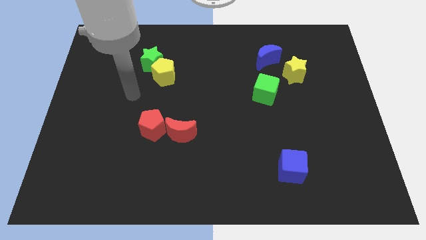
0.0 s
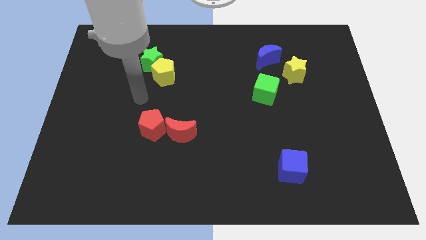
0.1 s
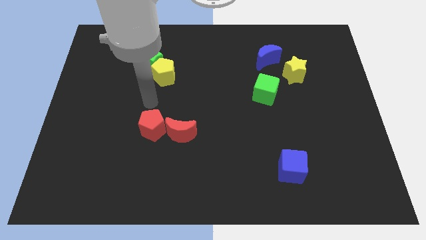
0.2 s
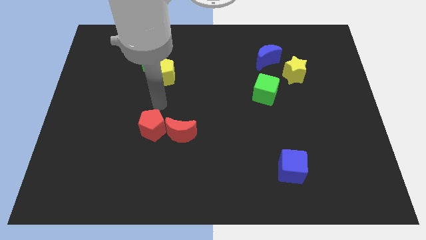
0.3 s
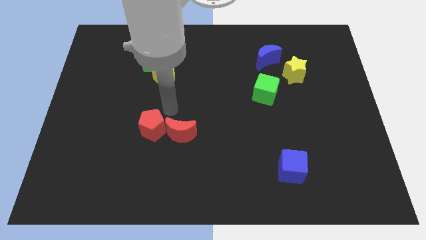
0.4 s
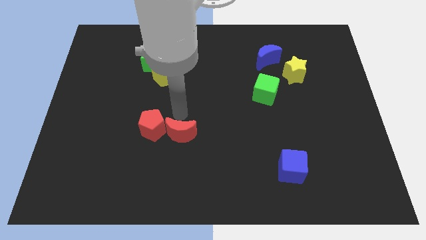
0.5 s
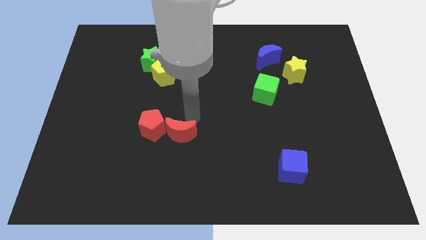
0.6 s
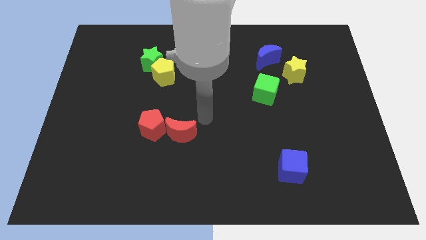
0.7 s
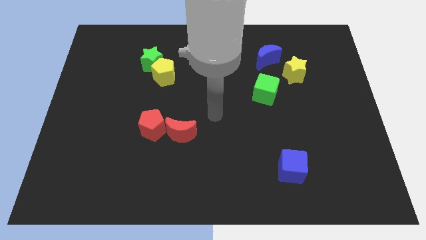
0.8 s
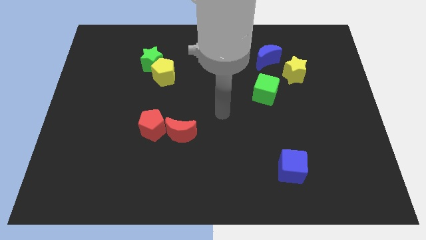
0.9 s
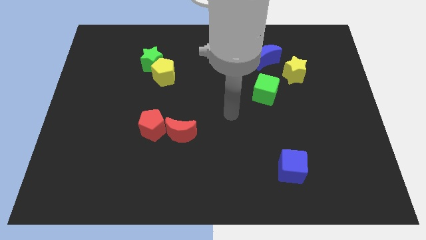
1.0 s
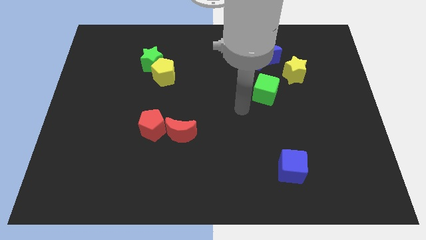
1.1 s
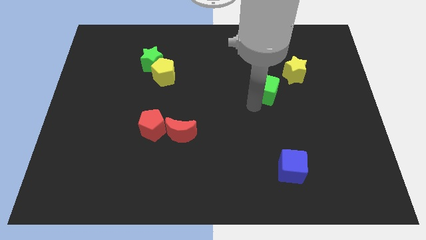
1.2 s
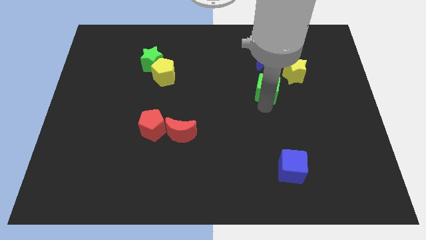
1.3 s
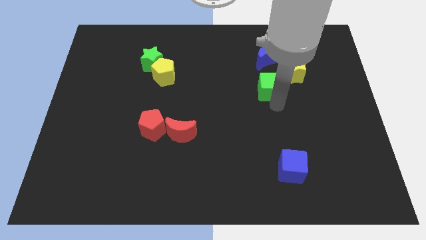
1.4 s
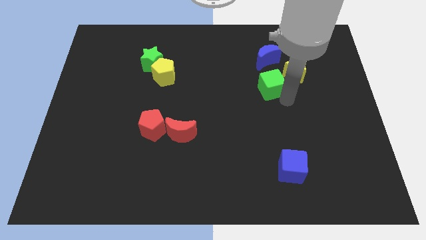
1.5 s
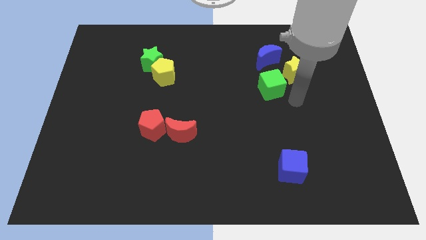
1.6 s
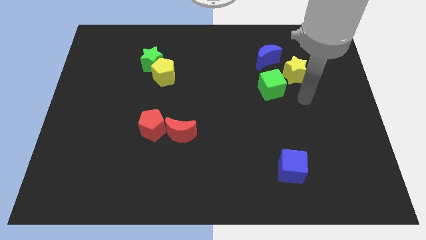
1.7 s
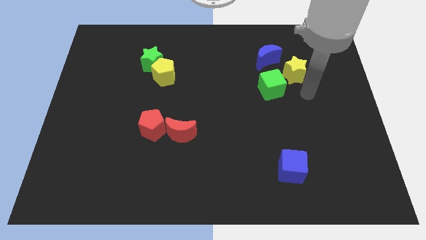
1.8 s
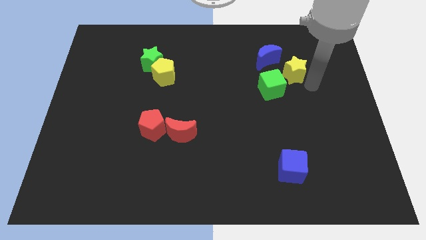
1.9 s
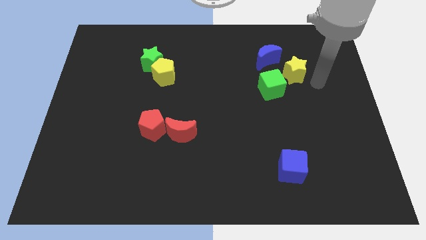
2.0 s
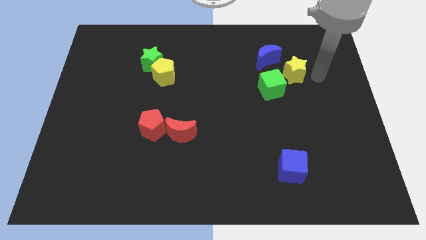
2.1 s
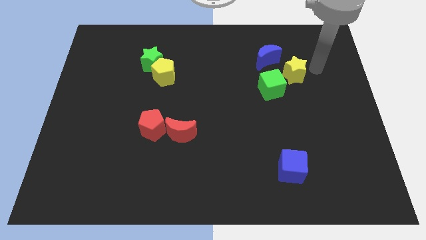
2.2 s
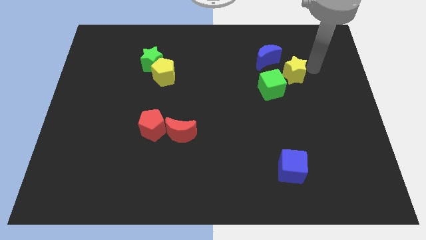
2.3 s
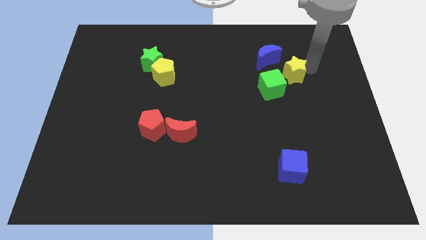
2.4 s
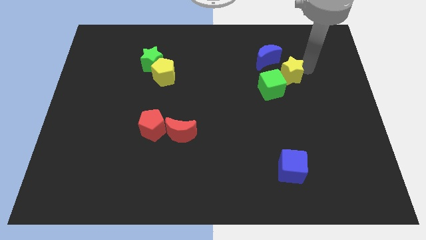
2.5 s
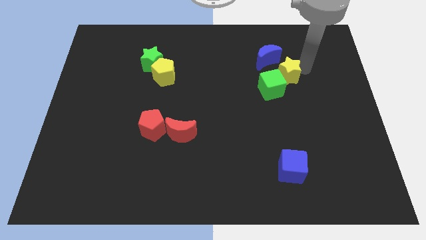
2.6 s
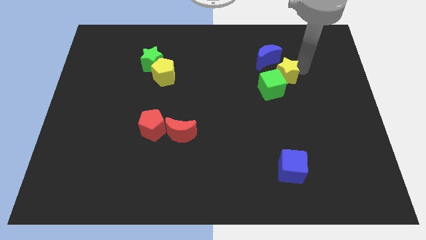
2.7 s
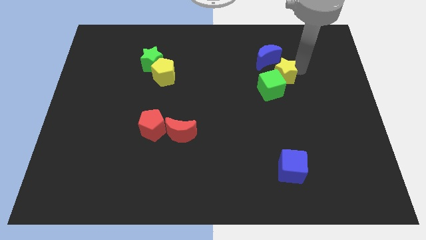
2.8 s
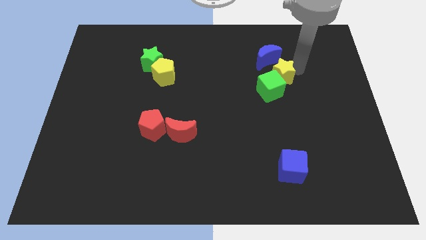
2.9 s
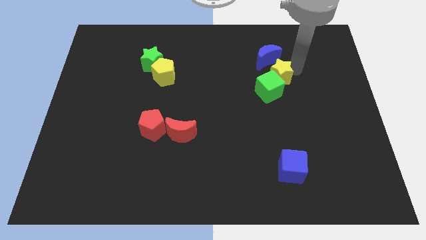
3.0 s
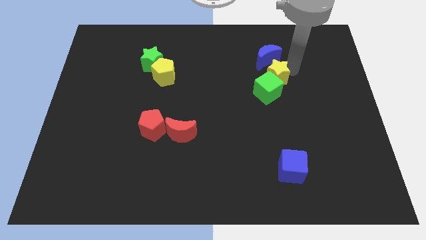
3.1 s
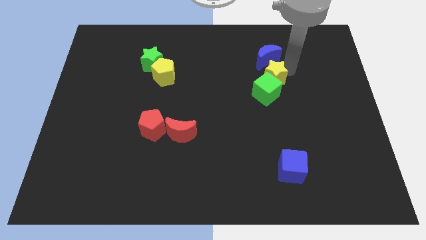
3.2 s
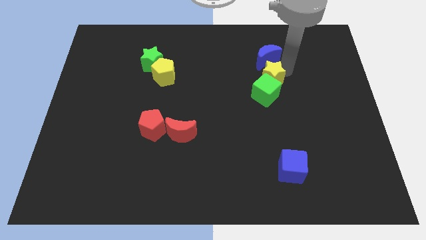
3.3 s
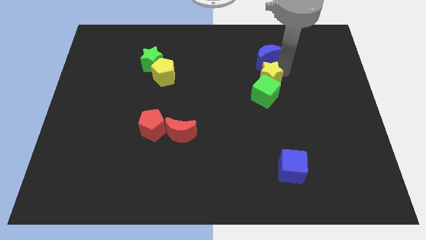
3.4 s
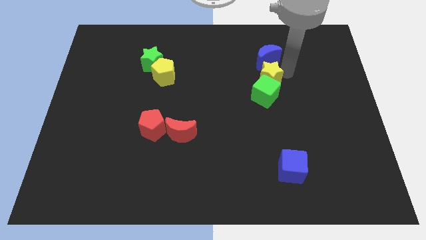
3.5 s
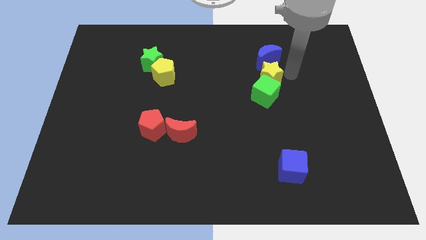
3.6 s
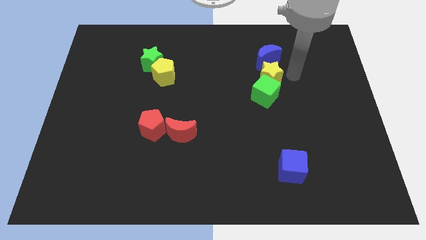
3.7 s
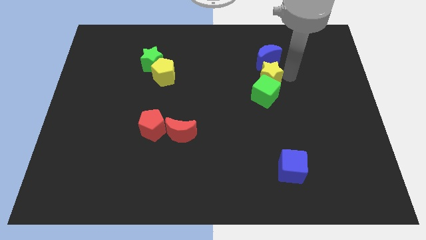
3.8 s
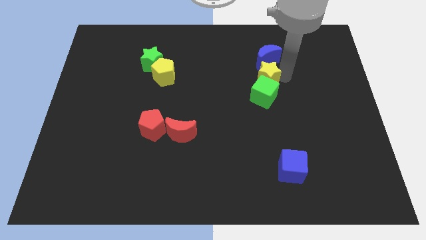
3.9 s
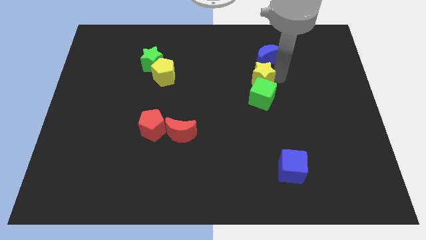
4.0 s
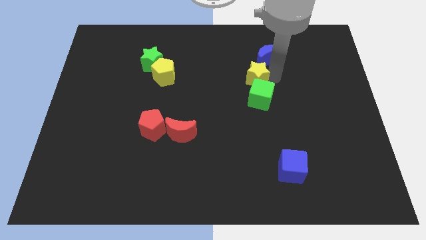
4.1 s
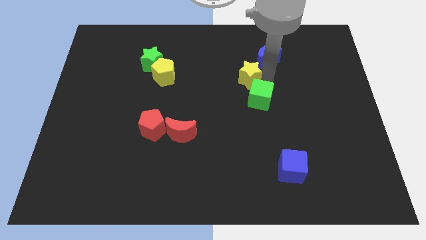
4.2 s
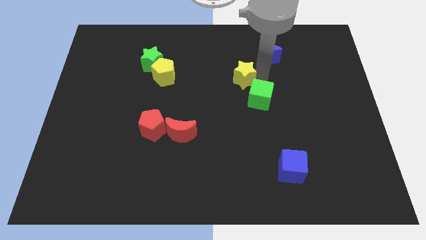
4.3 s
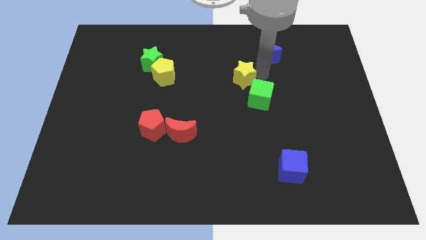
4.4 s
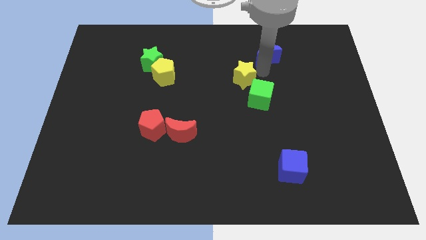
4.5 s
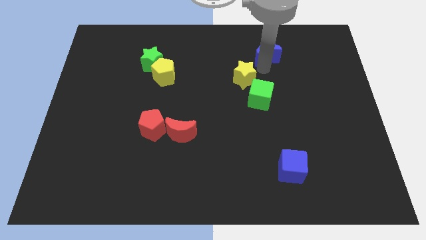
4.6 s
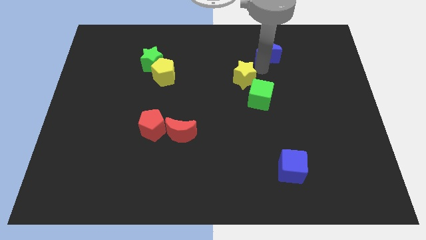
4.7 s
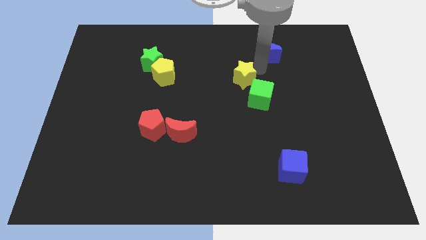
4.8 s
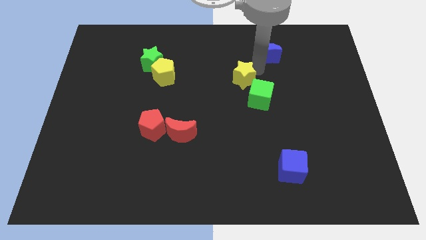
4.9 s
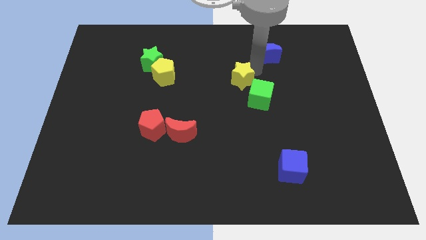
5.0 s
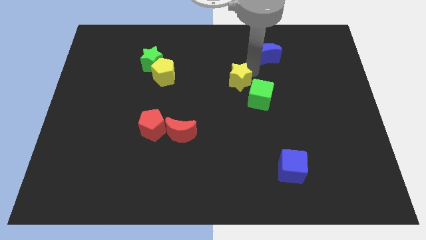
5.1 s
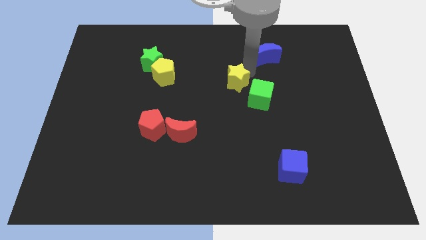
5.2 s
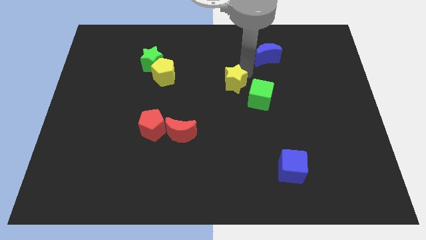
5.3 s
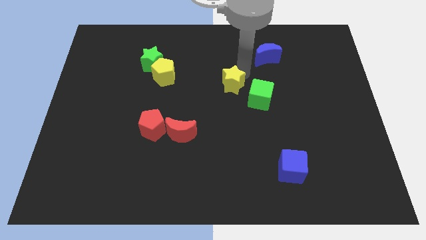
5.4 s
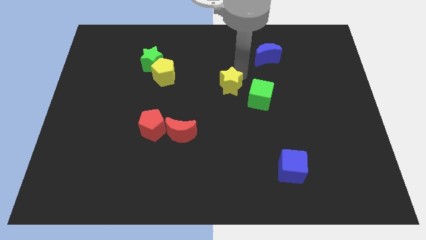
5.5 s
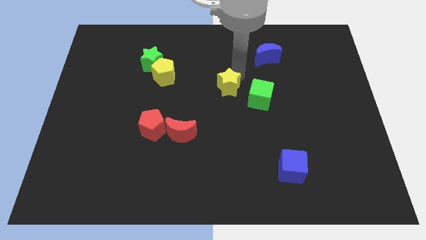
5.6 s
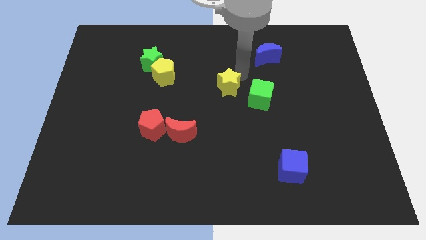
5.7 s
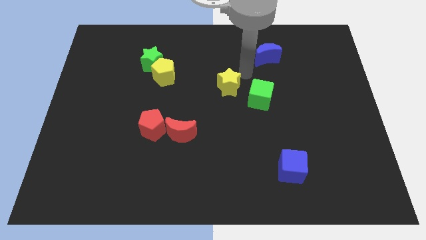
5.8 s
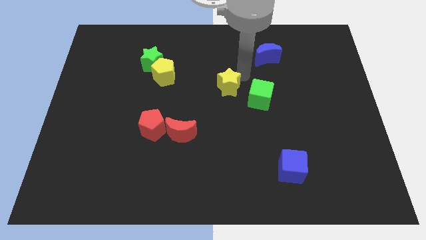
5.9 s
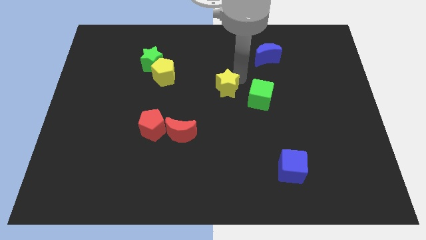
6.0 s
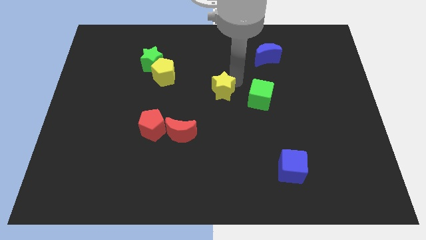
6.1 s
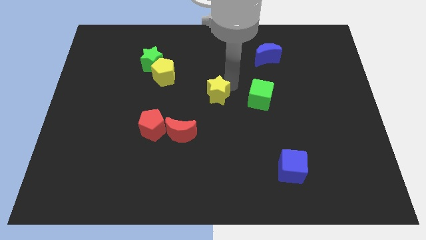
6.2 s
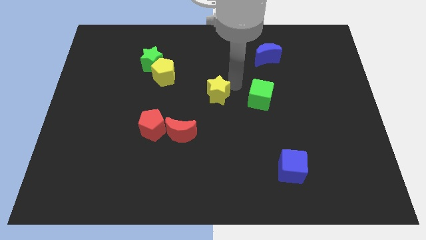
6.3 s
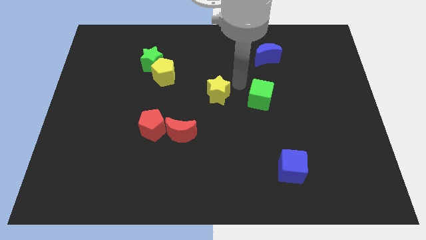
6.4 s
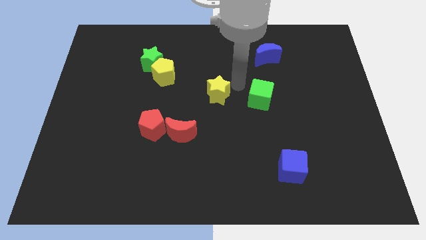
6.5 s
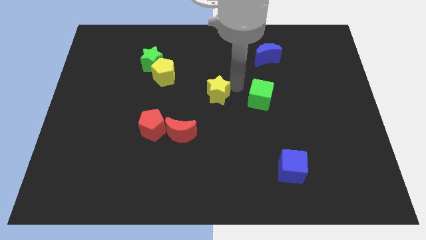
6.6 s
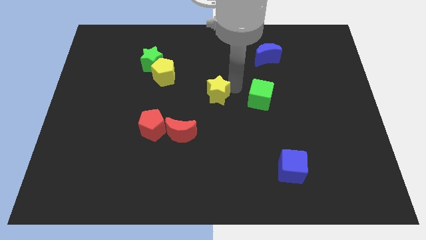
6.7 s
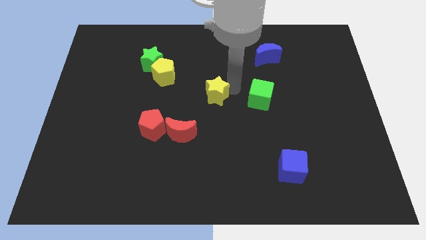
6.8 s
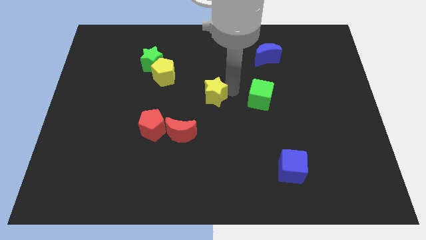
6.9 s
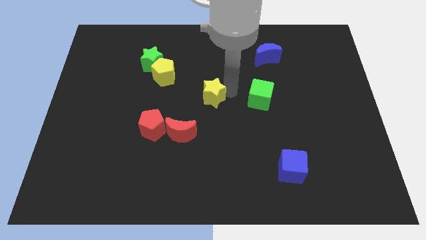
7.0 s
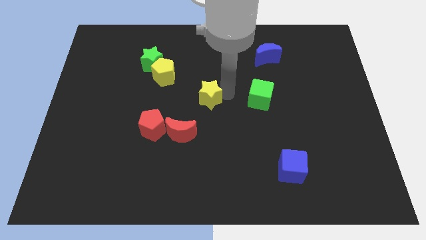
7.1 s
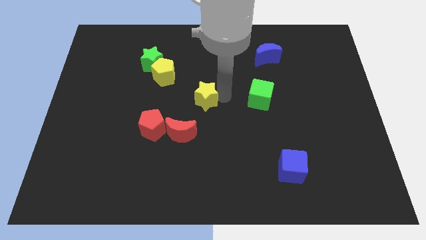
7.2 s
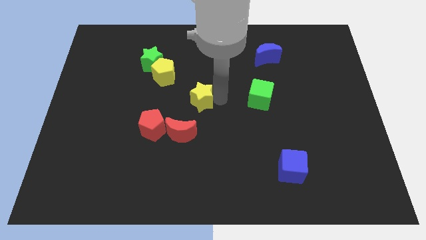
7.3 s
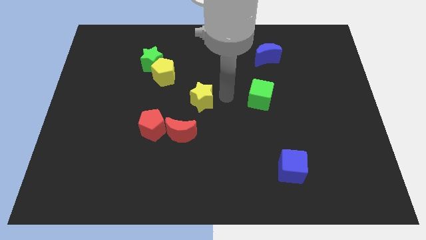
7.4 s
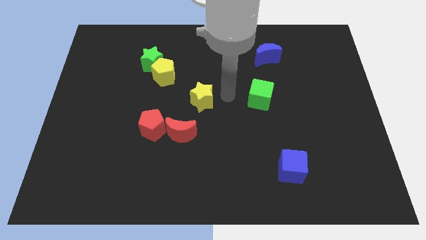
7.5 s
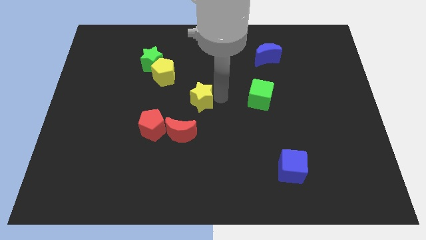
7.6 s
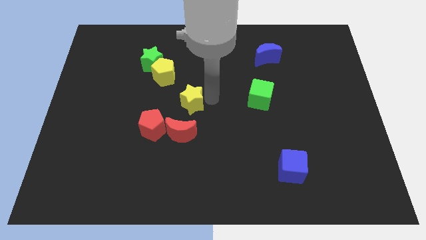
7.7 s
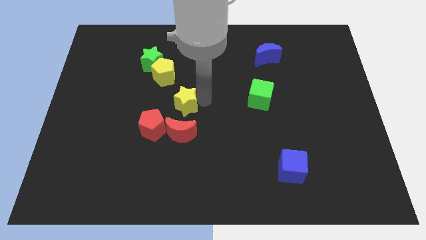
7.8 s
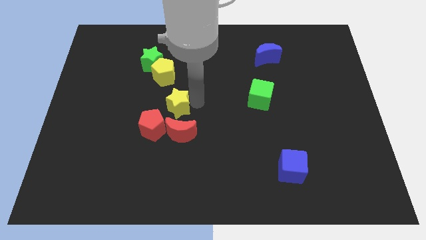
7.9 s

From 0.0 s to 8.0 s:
move the yellow star below the yellow pentagon
